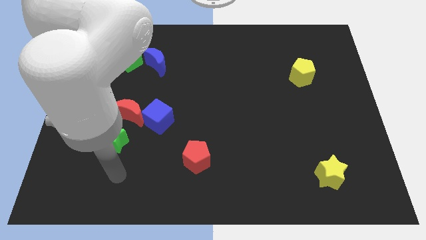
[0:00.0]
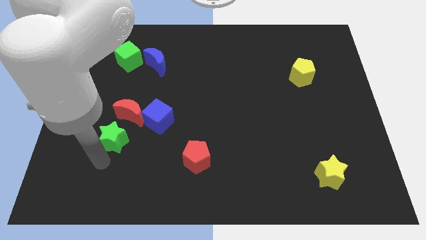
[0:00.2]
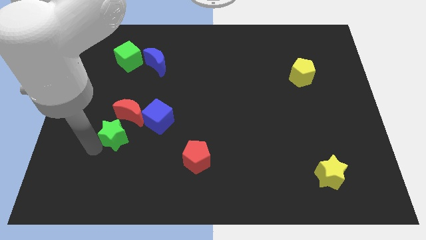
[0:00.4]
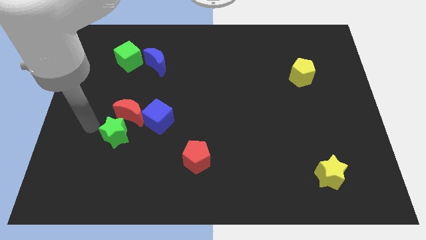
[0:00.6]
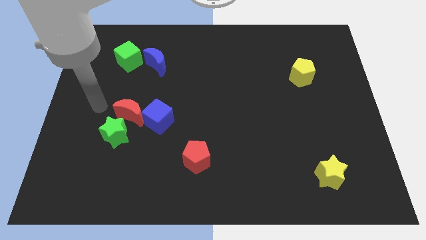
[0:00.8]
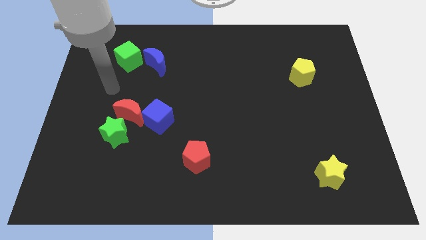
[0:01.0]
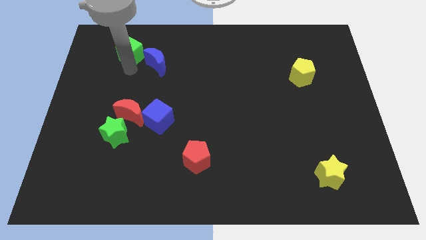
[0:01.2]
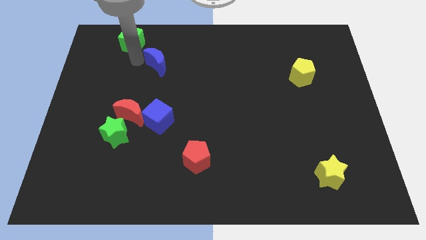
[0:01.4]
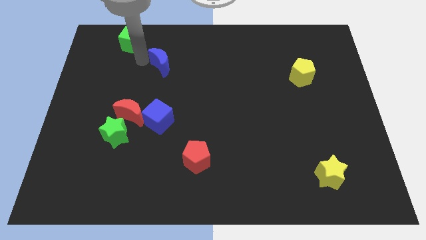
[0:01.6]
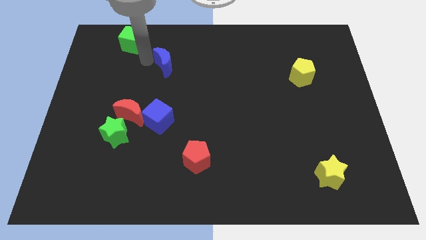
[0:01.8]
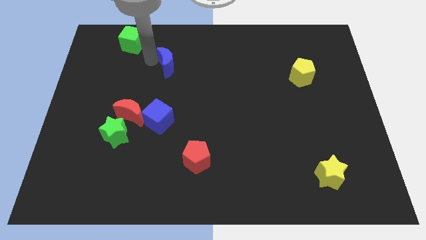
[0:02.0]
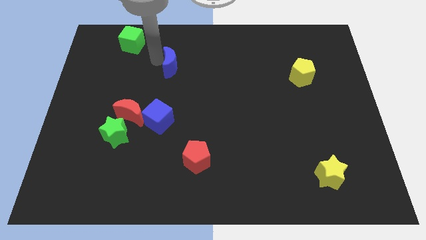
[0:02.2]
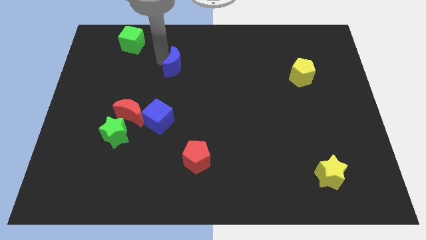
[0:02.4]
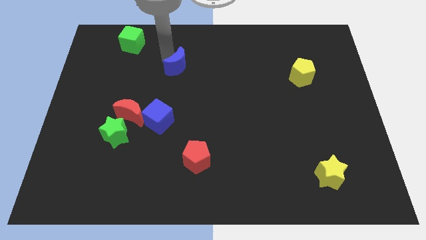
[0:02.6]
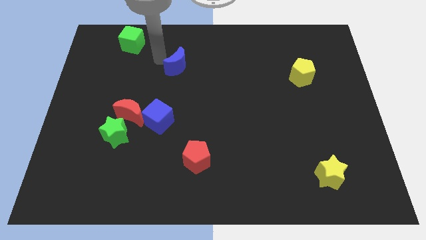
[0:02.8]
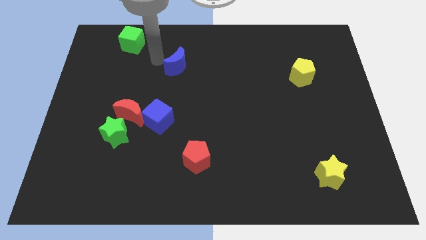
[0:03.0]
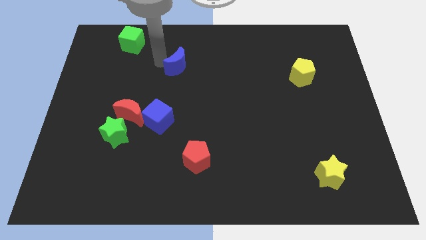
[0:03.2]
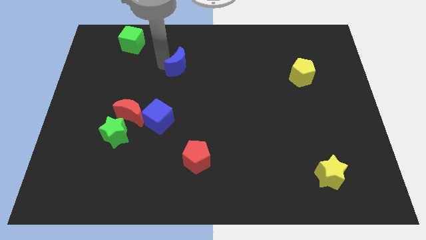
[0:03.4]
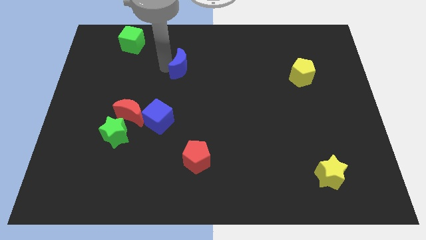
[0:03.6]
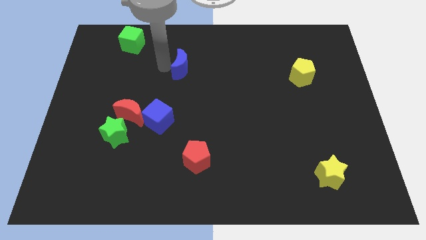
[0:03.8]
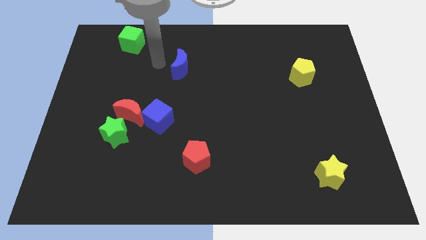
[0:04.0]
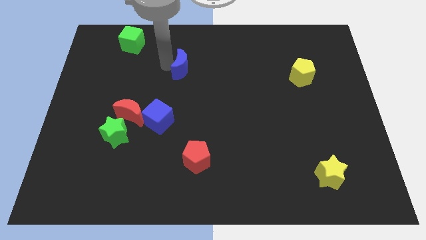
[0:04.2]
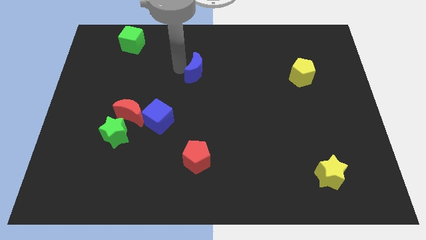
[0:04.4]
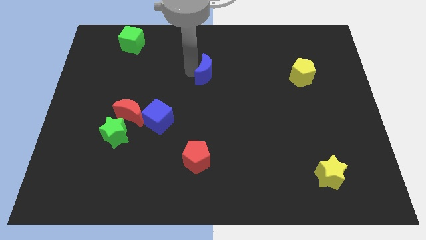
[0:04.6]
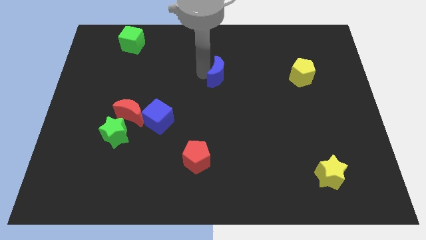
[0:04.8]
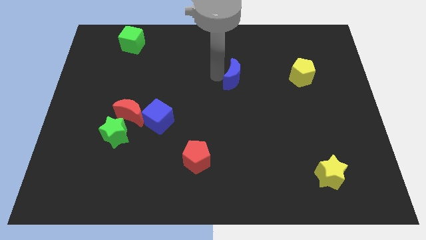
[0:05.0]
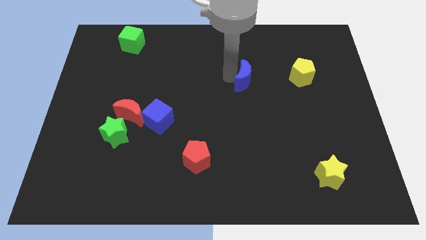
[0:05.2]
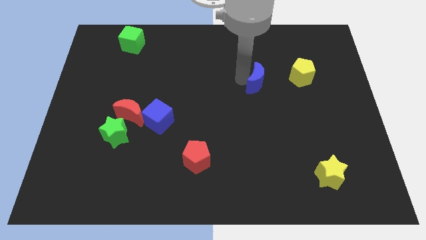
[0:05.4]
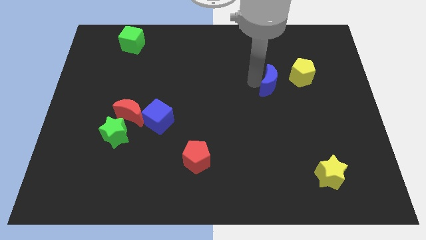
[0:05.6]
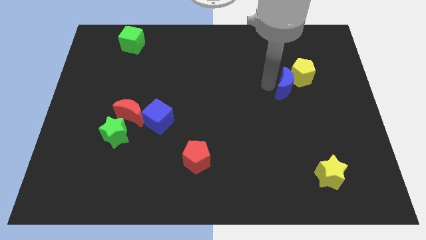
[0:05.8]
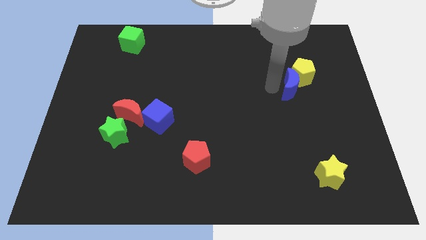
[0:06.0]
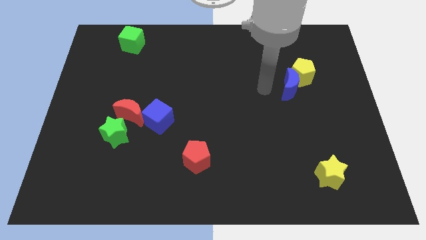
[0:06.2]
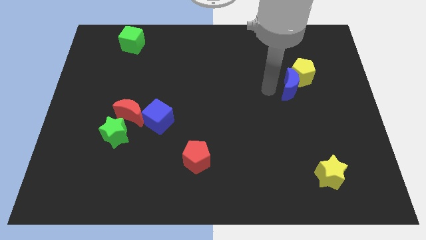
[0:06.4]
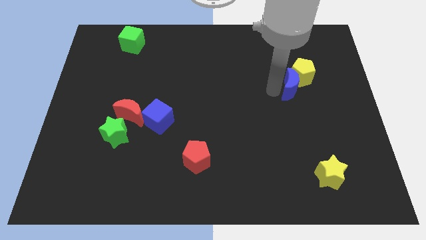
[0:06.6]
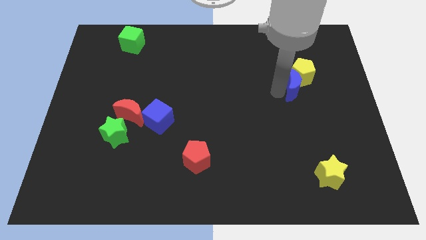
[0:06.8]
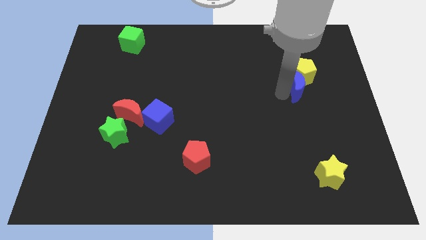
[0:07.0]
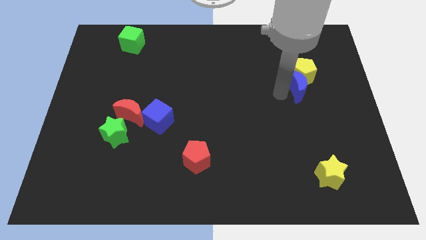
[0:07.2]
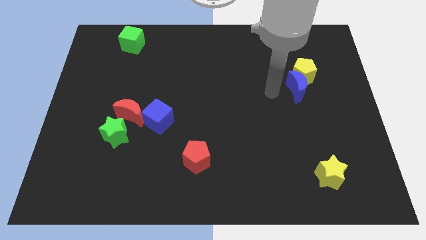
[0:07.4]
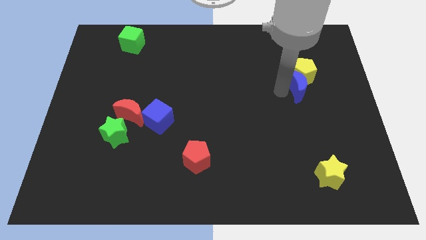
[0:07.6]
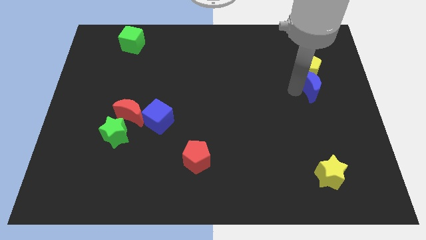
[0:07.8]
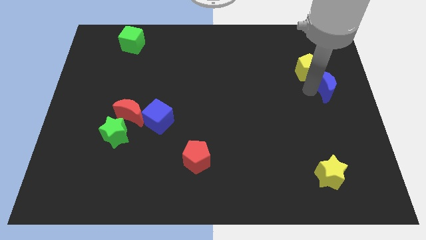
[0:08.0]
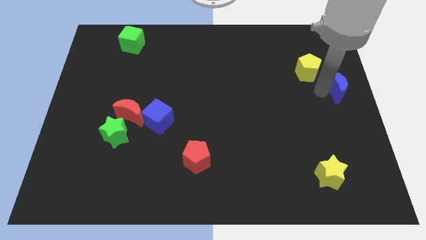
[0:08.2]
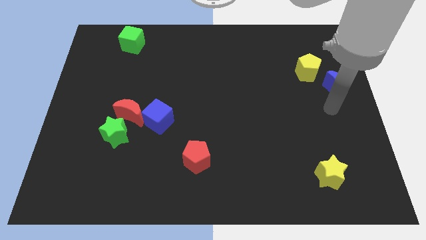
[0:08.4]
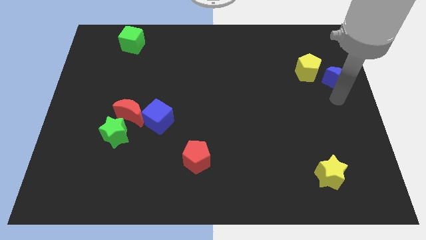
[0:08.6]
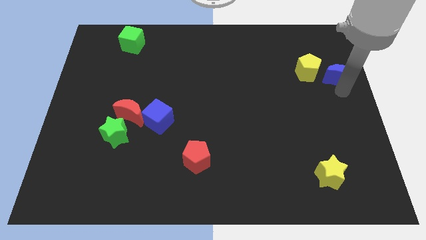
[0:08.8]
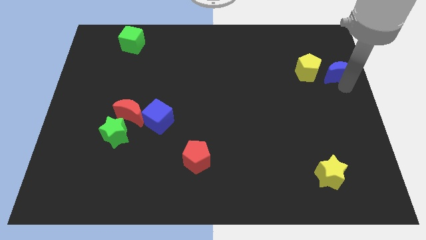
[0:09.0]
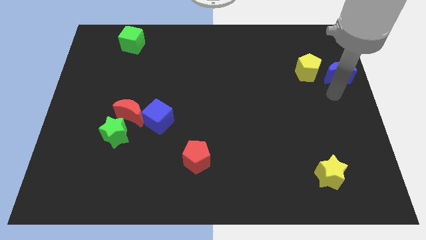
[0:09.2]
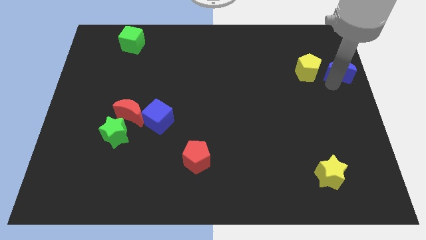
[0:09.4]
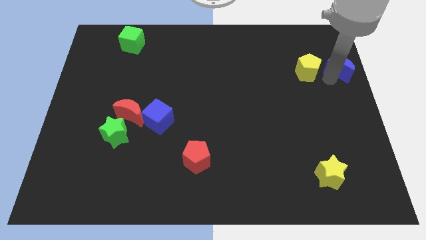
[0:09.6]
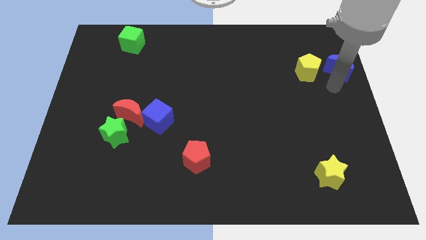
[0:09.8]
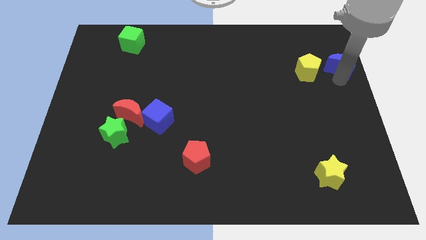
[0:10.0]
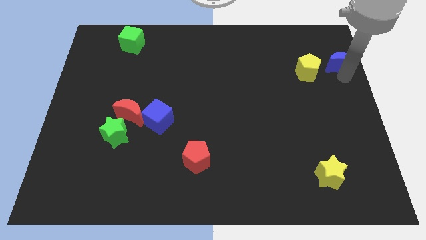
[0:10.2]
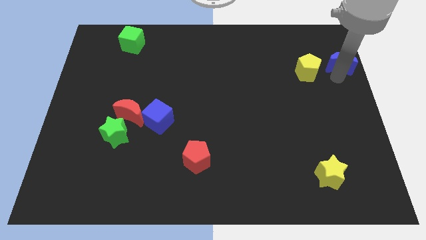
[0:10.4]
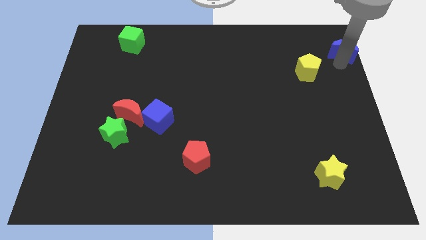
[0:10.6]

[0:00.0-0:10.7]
slide the blue moon to the top right of the board
